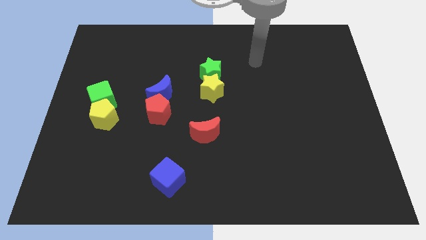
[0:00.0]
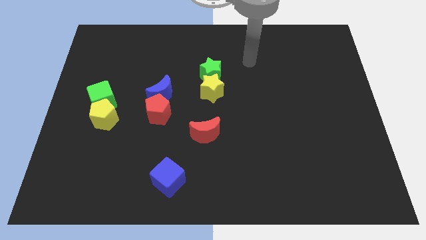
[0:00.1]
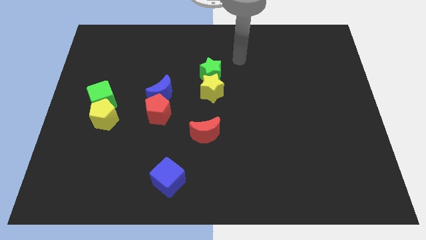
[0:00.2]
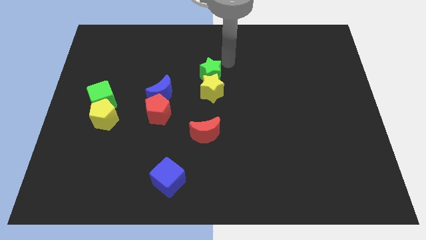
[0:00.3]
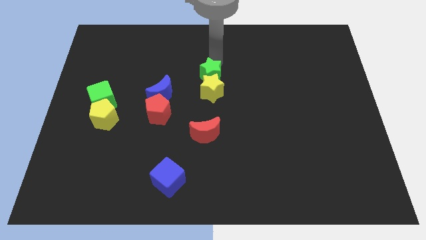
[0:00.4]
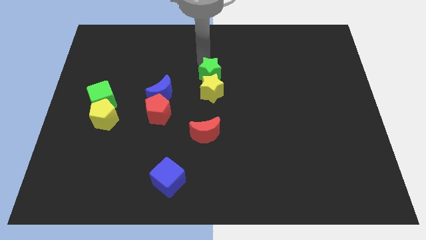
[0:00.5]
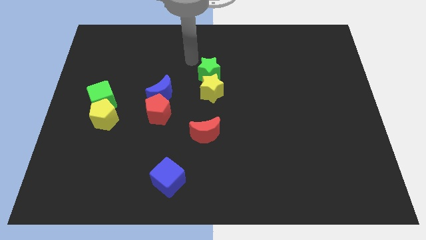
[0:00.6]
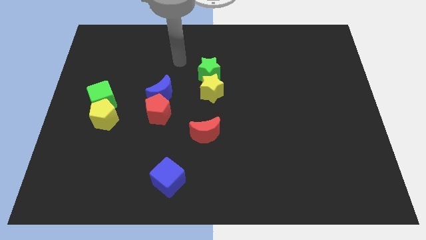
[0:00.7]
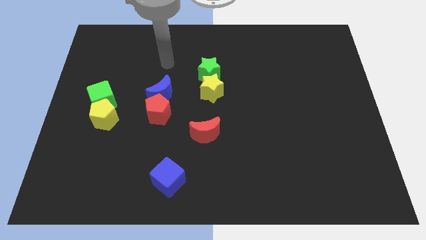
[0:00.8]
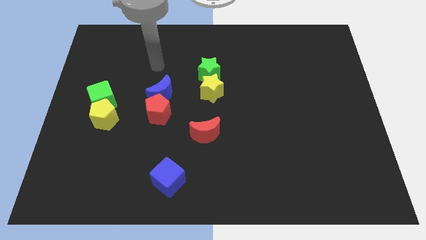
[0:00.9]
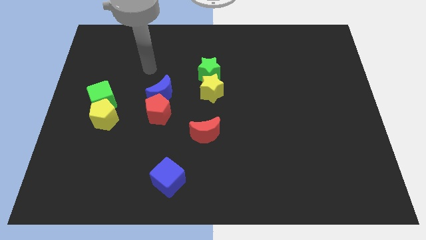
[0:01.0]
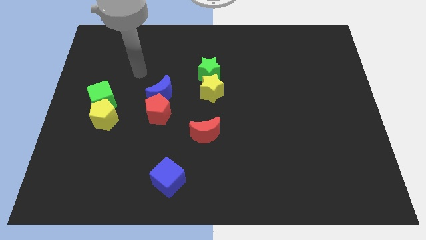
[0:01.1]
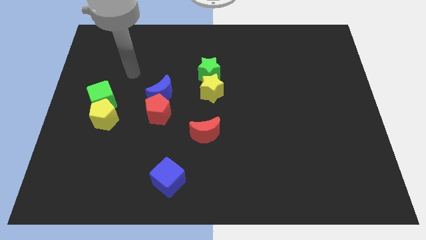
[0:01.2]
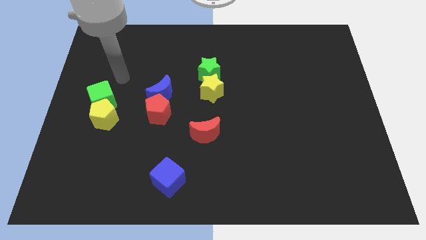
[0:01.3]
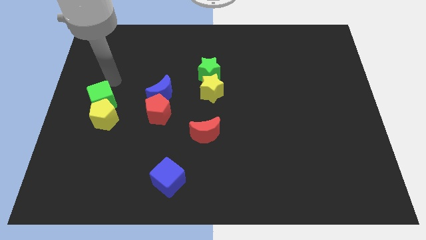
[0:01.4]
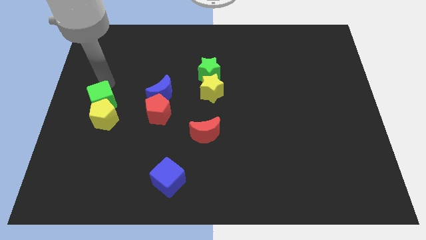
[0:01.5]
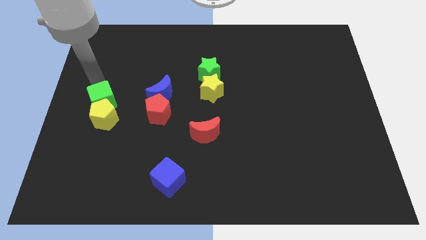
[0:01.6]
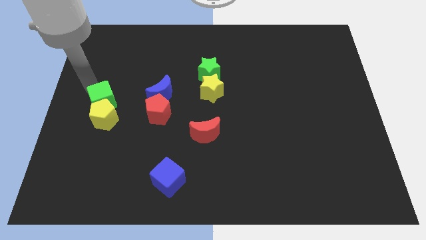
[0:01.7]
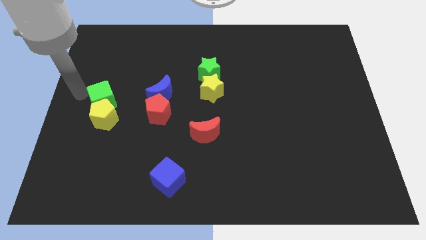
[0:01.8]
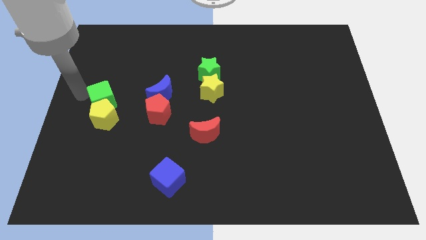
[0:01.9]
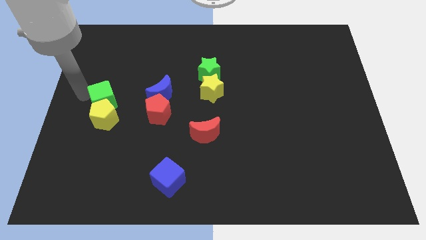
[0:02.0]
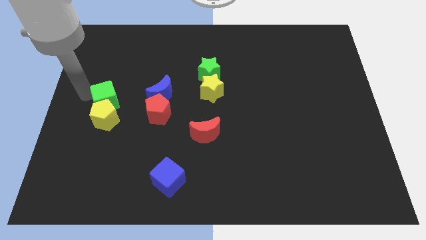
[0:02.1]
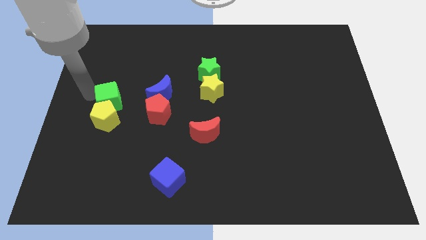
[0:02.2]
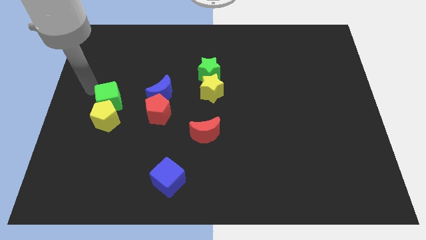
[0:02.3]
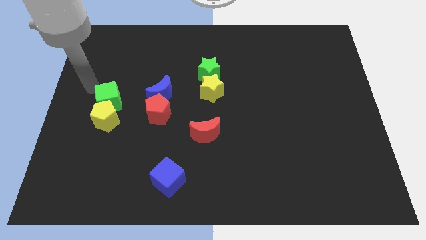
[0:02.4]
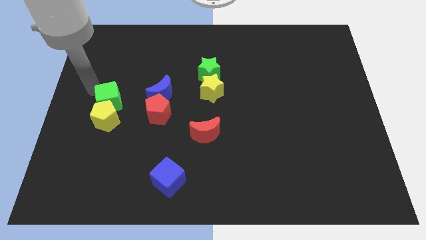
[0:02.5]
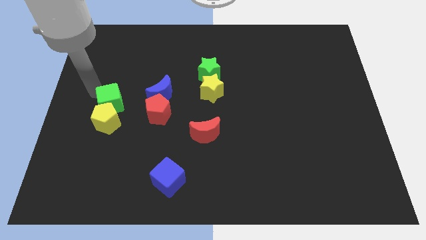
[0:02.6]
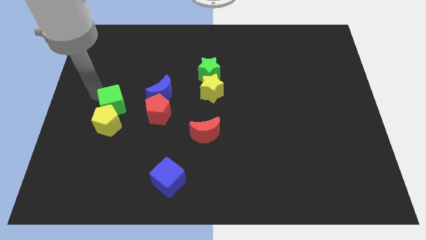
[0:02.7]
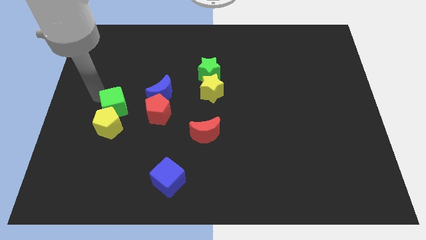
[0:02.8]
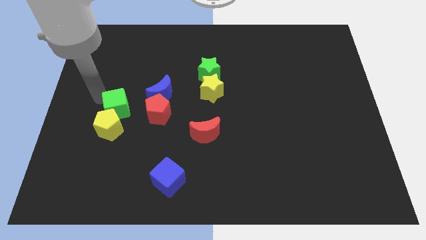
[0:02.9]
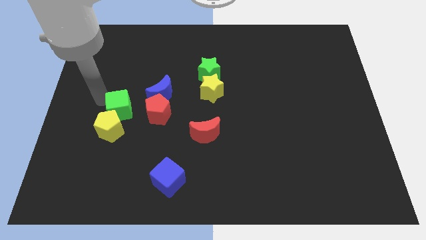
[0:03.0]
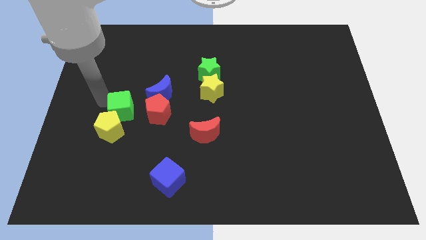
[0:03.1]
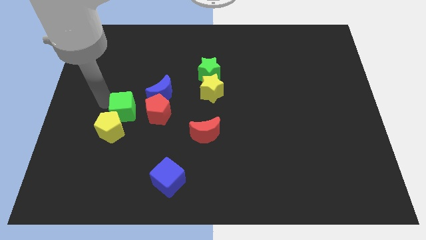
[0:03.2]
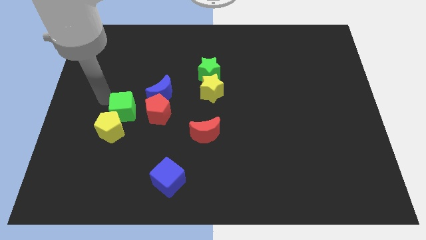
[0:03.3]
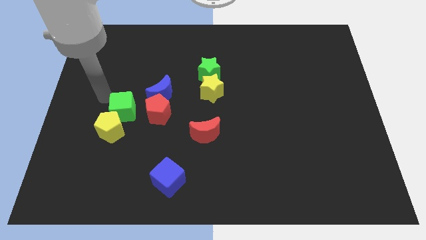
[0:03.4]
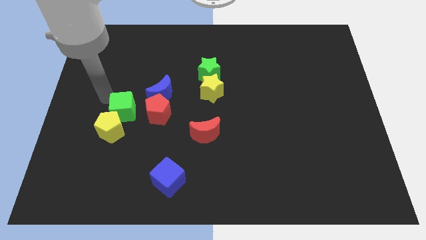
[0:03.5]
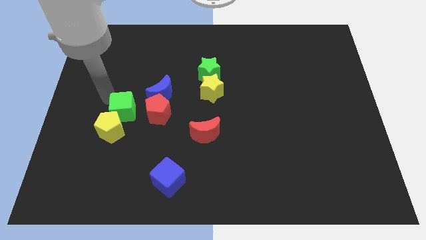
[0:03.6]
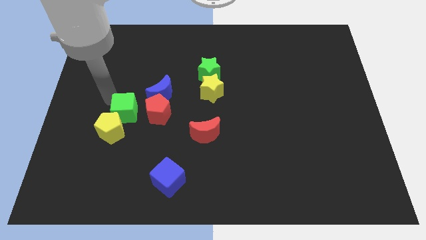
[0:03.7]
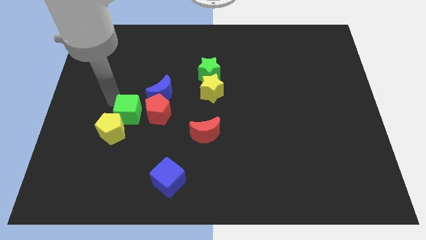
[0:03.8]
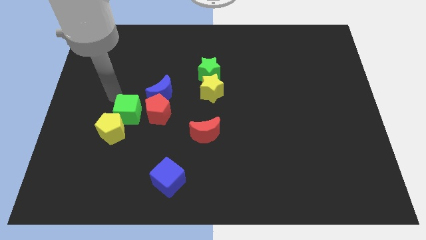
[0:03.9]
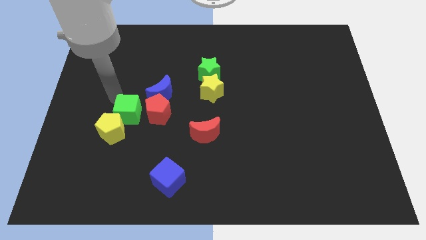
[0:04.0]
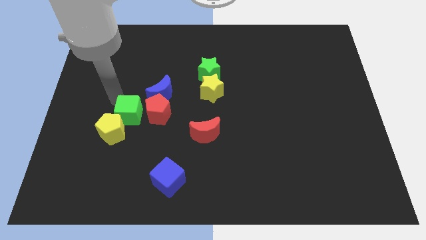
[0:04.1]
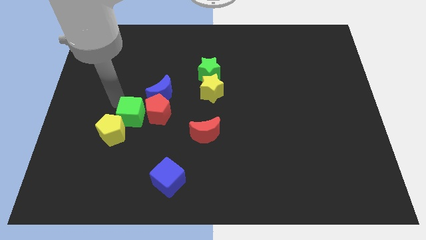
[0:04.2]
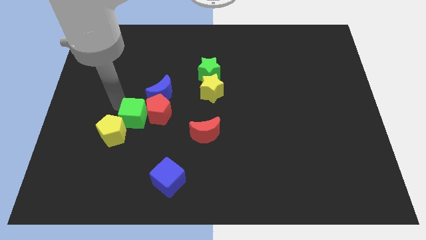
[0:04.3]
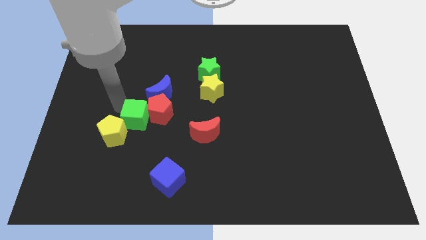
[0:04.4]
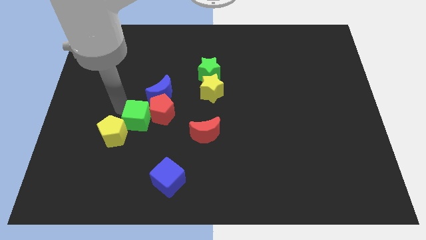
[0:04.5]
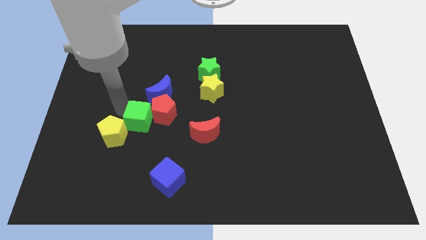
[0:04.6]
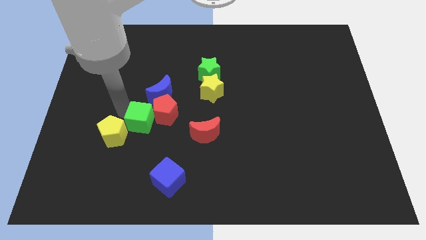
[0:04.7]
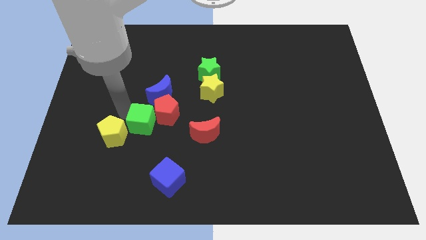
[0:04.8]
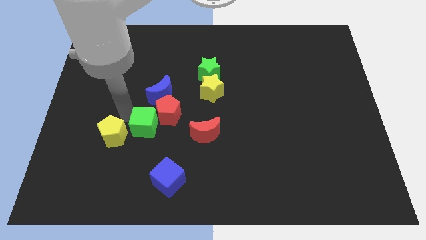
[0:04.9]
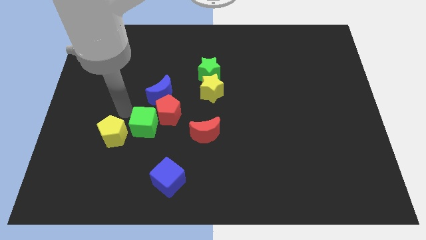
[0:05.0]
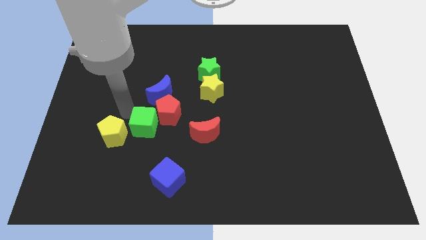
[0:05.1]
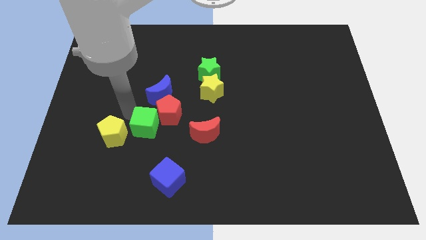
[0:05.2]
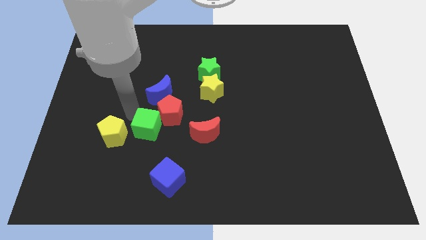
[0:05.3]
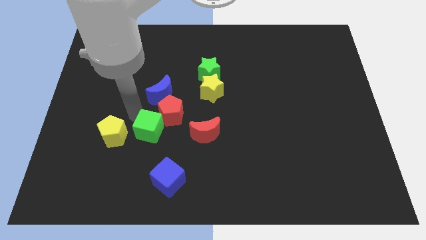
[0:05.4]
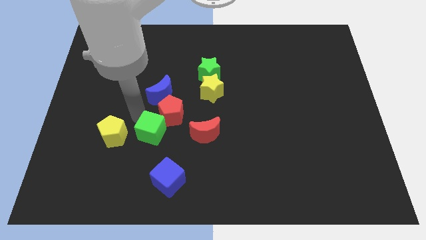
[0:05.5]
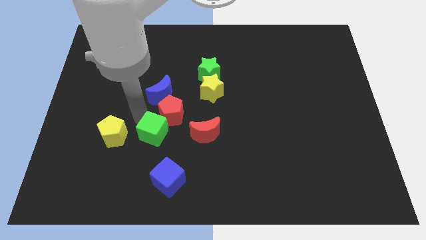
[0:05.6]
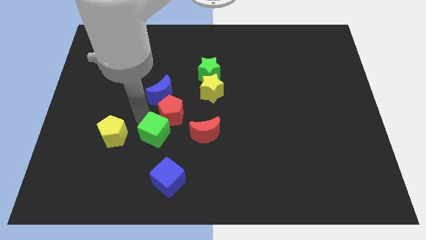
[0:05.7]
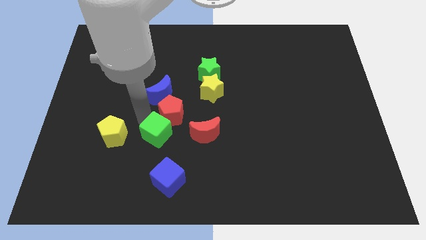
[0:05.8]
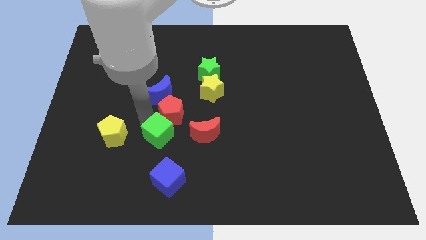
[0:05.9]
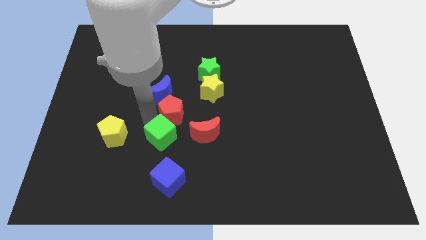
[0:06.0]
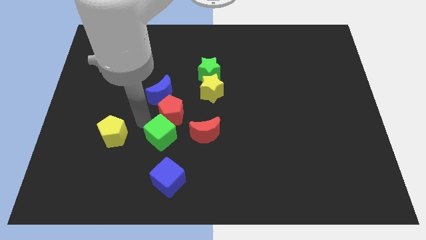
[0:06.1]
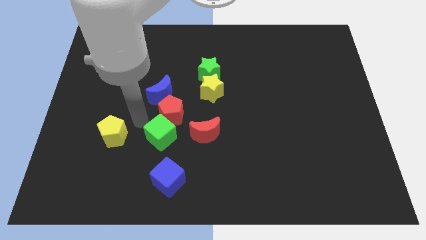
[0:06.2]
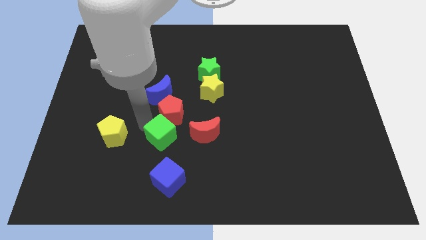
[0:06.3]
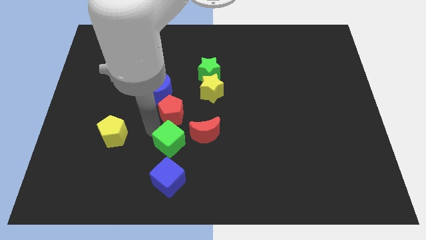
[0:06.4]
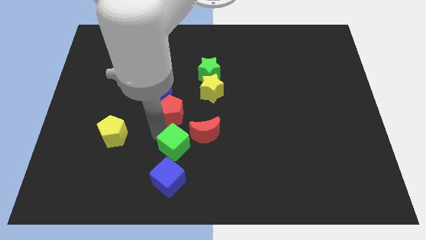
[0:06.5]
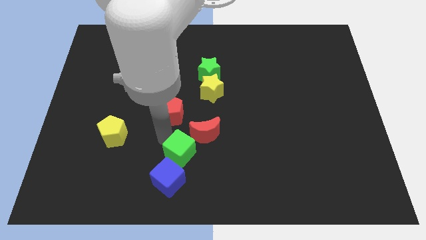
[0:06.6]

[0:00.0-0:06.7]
put the green cube to the top right side of the blue cube

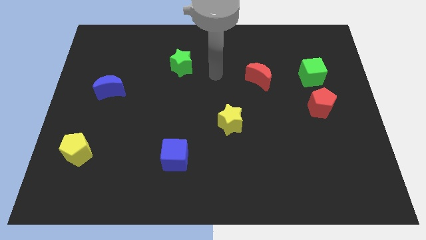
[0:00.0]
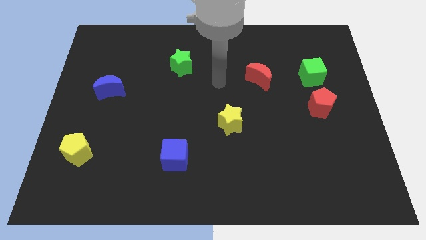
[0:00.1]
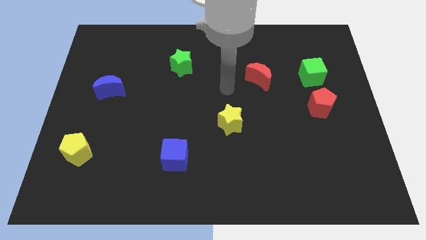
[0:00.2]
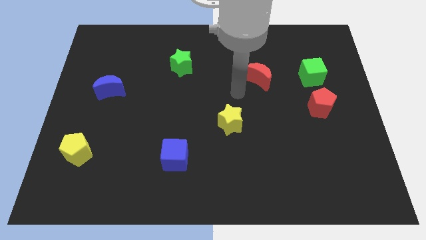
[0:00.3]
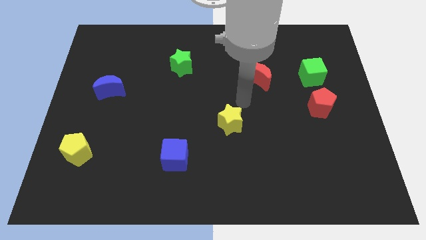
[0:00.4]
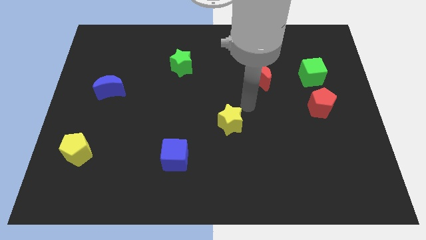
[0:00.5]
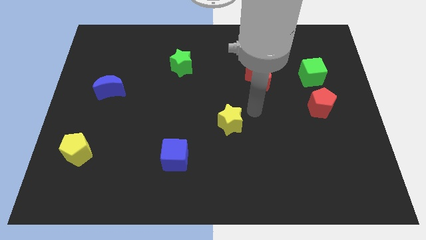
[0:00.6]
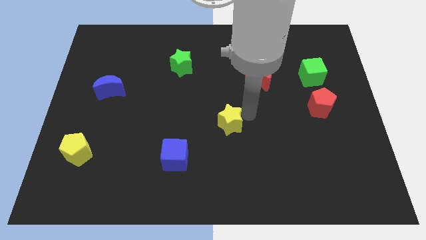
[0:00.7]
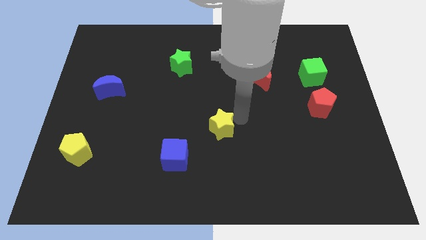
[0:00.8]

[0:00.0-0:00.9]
move the yellow star to the top right of the blue cube
